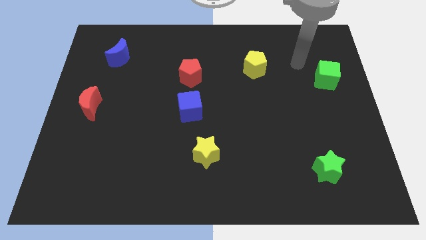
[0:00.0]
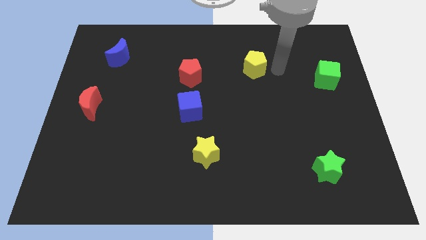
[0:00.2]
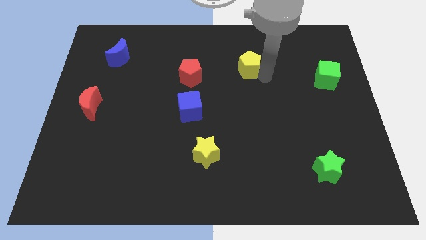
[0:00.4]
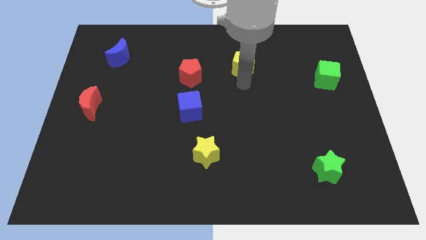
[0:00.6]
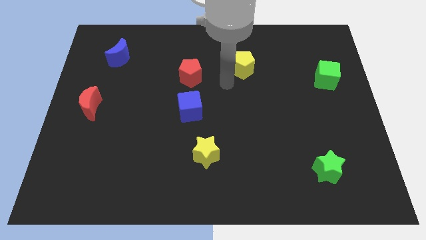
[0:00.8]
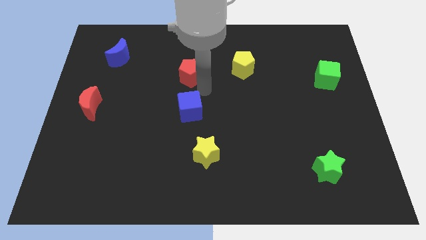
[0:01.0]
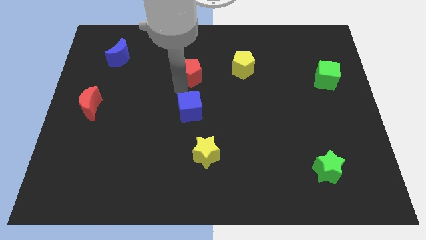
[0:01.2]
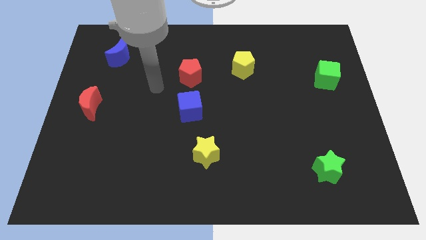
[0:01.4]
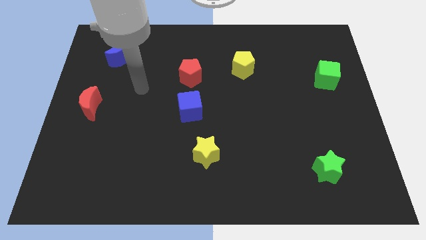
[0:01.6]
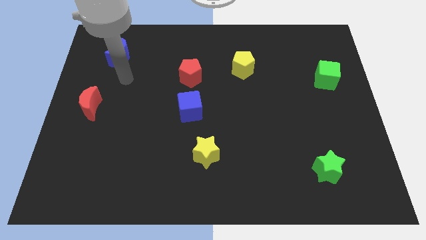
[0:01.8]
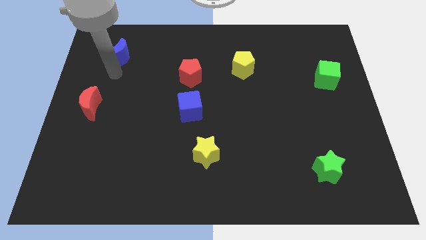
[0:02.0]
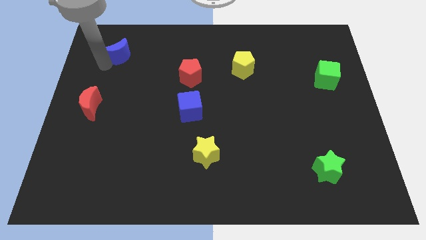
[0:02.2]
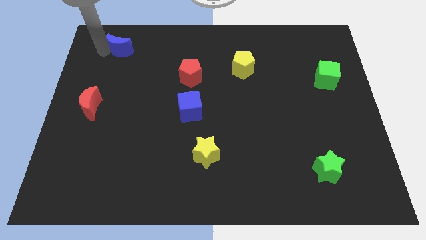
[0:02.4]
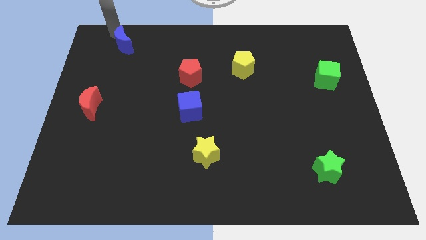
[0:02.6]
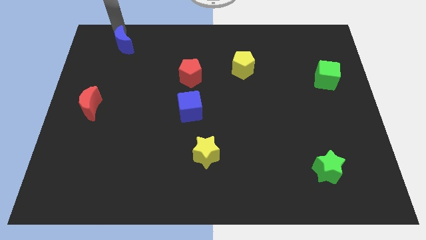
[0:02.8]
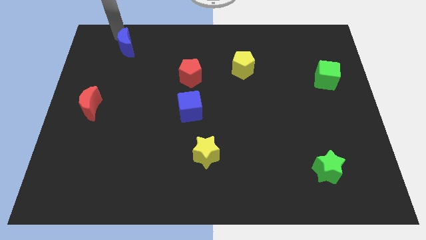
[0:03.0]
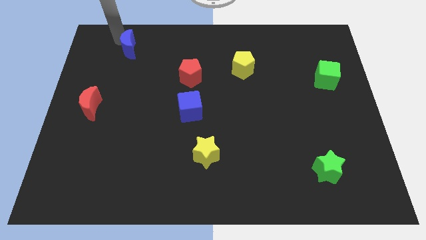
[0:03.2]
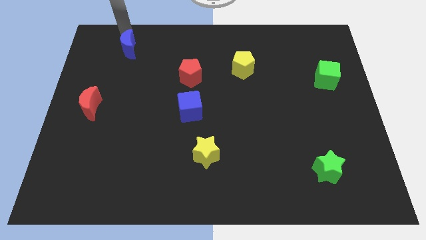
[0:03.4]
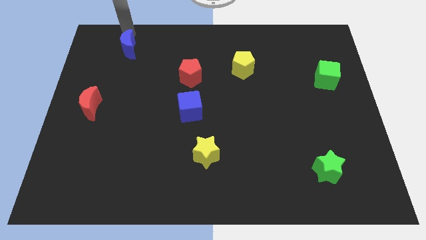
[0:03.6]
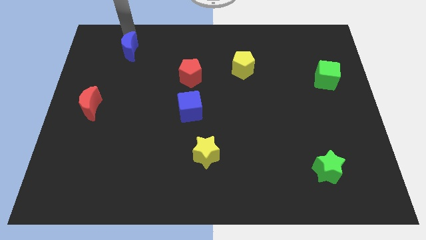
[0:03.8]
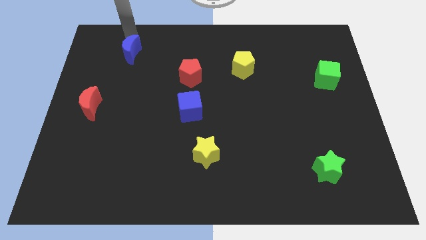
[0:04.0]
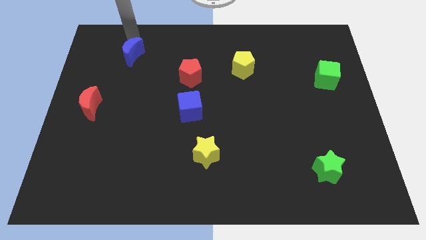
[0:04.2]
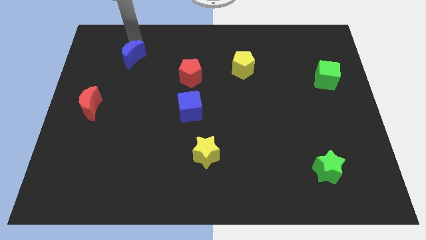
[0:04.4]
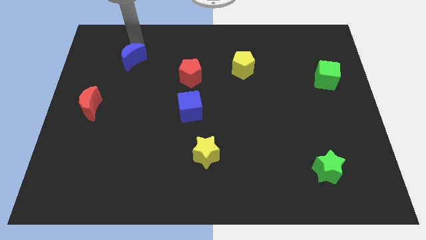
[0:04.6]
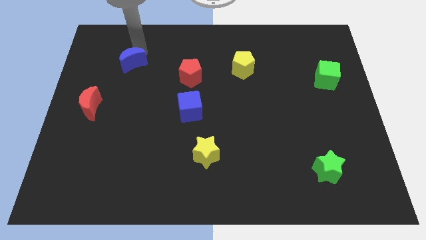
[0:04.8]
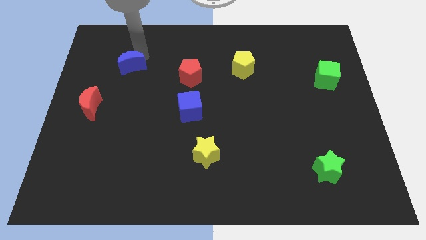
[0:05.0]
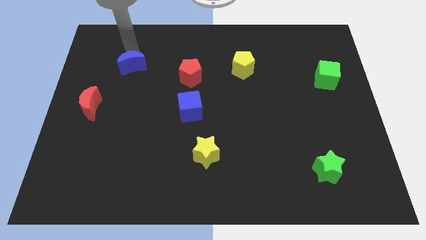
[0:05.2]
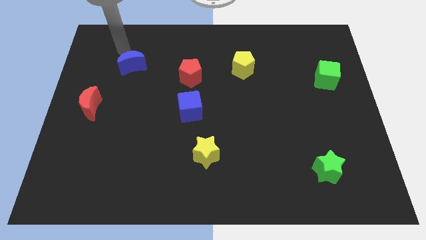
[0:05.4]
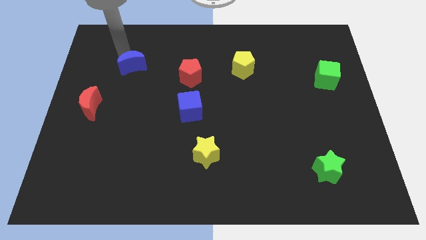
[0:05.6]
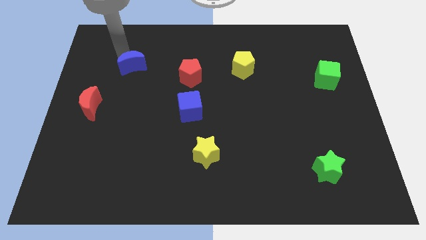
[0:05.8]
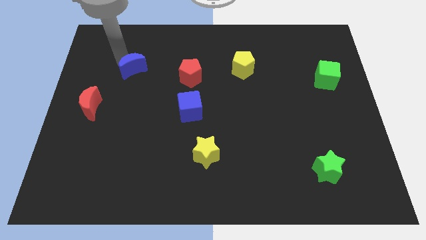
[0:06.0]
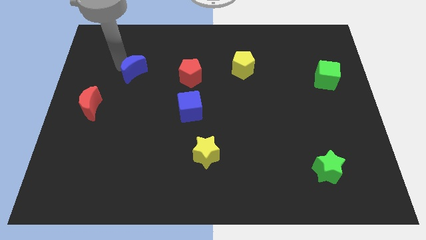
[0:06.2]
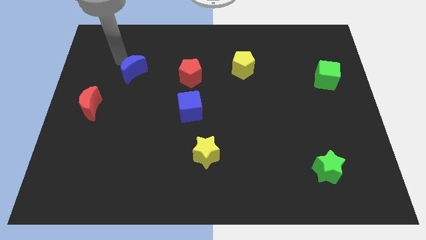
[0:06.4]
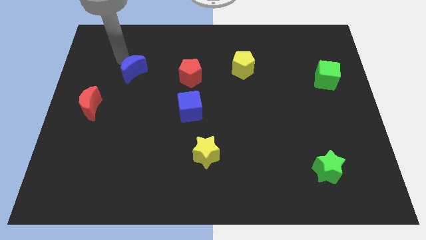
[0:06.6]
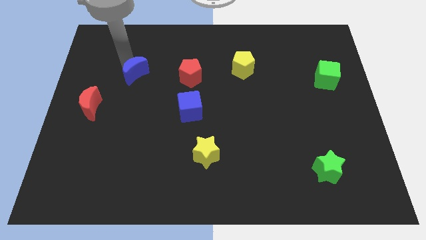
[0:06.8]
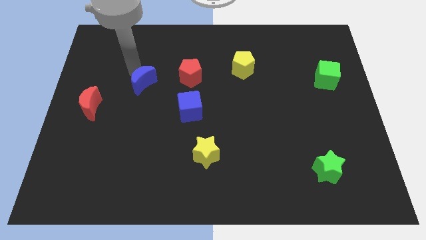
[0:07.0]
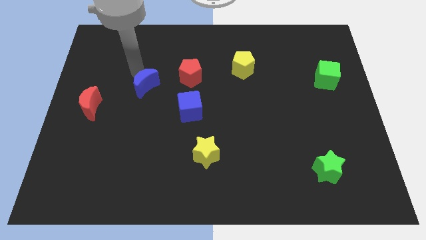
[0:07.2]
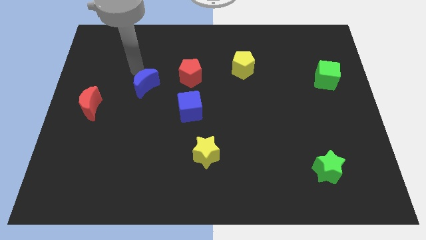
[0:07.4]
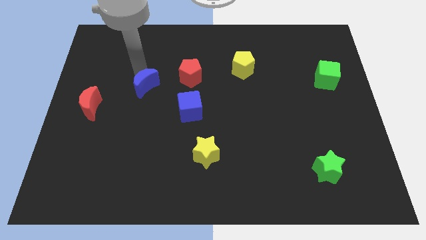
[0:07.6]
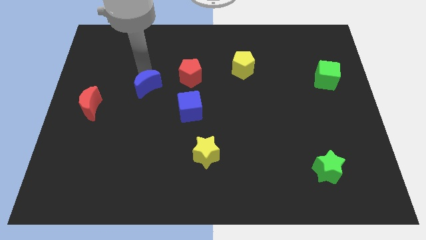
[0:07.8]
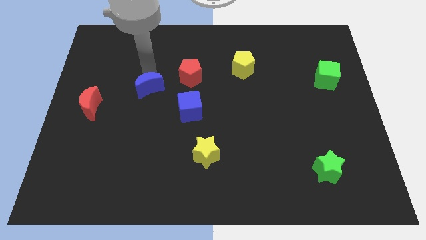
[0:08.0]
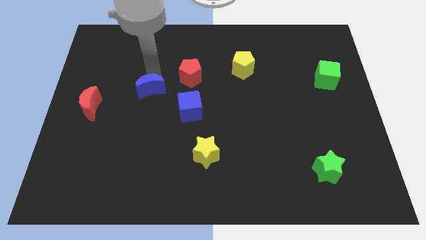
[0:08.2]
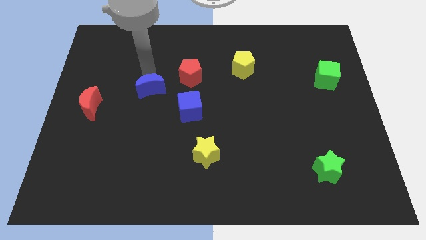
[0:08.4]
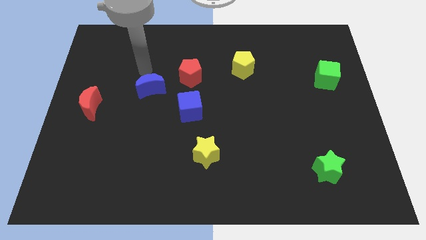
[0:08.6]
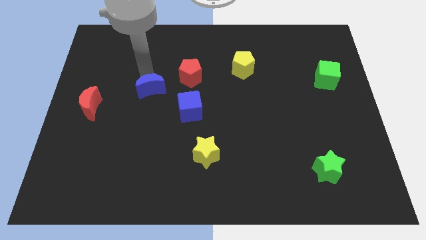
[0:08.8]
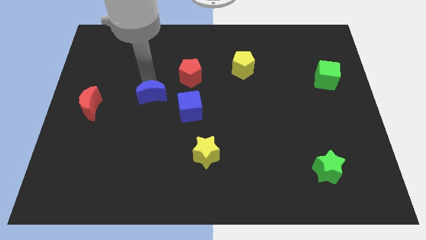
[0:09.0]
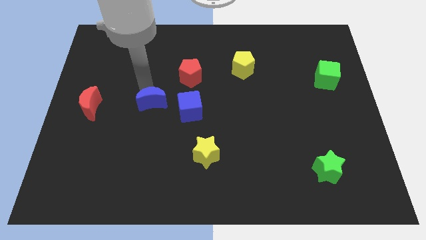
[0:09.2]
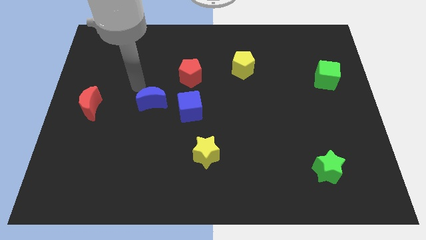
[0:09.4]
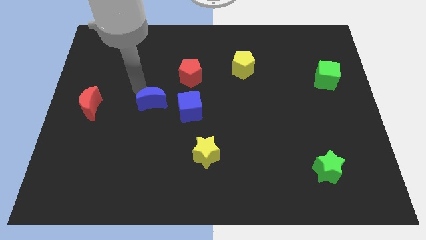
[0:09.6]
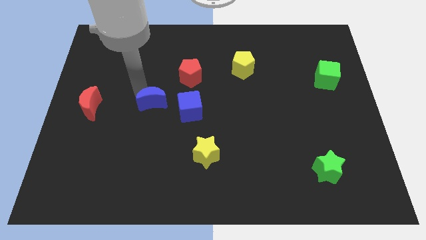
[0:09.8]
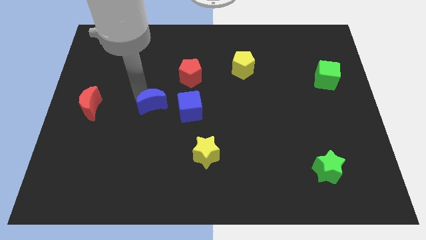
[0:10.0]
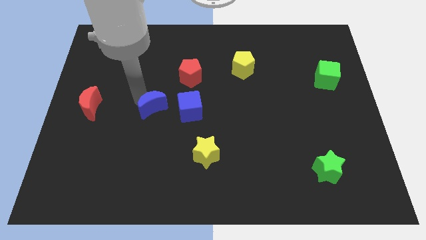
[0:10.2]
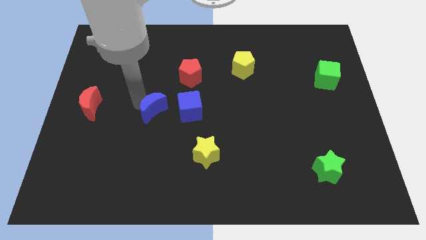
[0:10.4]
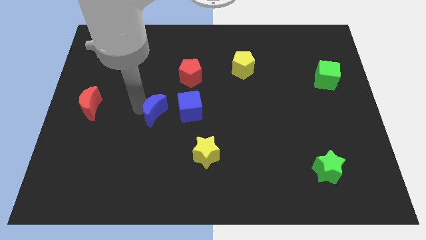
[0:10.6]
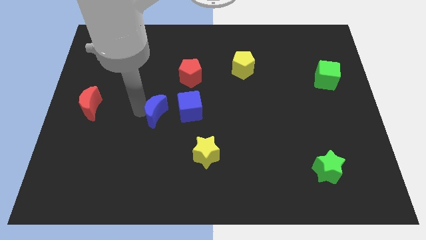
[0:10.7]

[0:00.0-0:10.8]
move the blue moon down and to the right diagonally

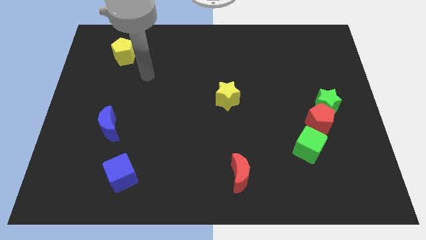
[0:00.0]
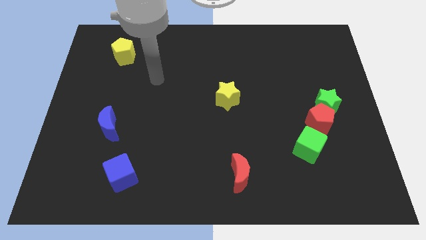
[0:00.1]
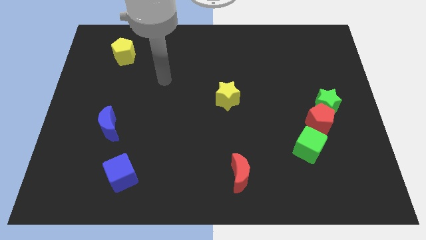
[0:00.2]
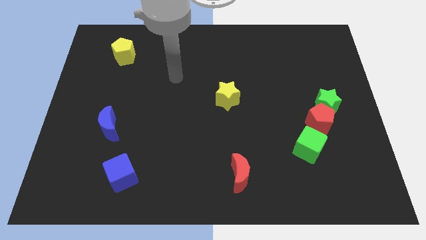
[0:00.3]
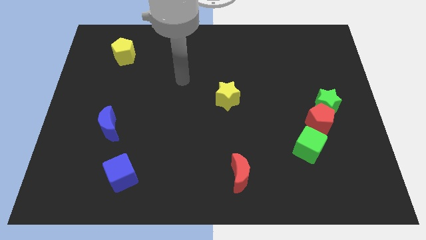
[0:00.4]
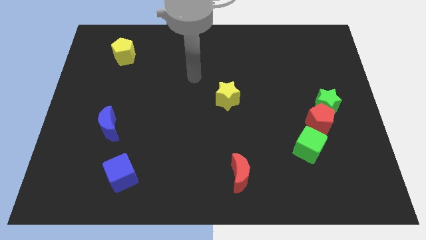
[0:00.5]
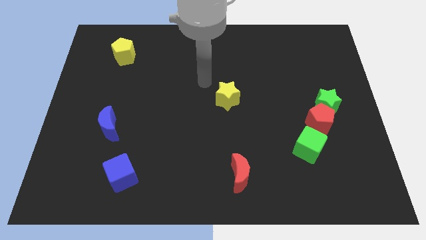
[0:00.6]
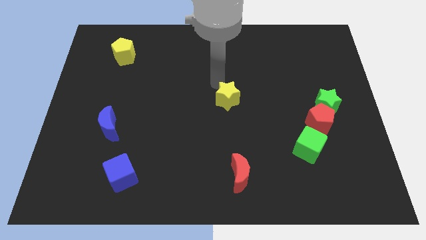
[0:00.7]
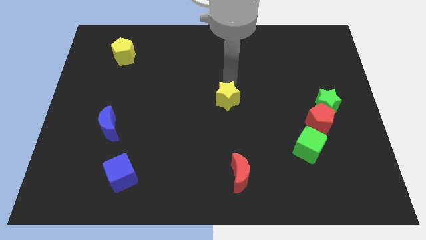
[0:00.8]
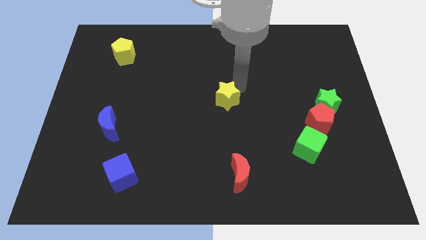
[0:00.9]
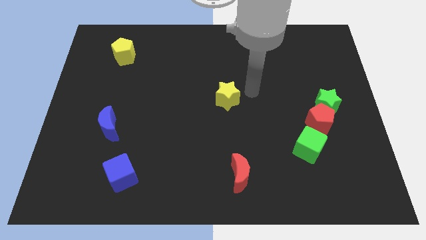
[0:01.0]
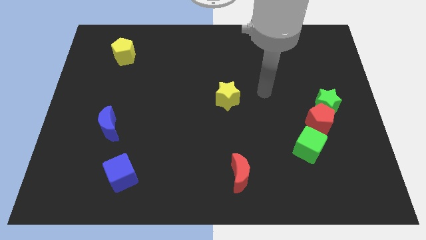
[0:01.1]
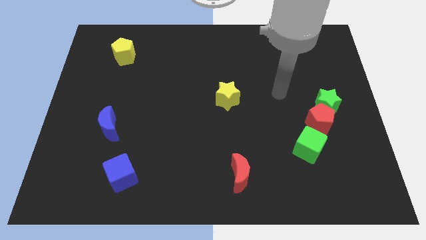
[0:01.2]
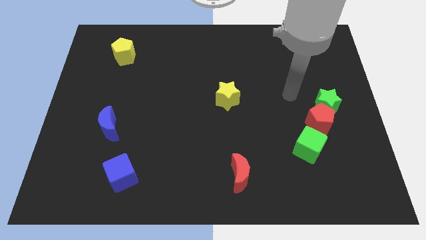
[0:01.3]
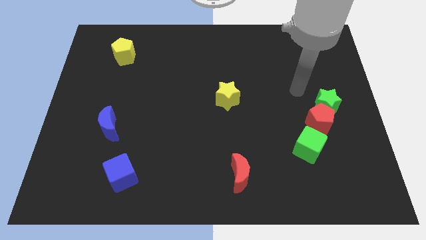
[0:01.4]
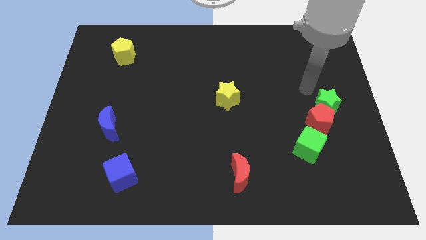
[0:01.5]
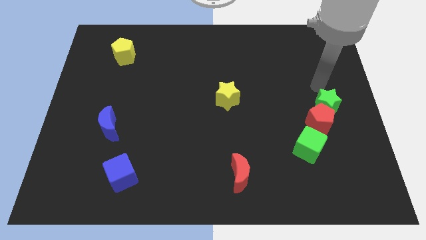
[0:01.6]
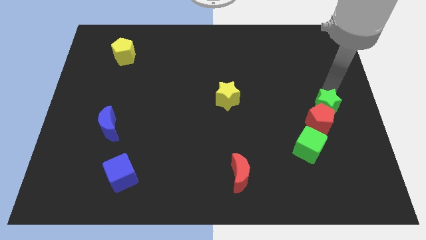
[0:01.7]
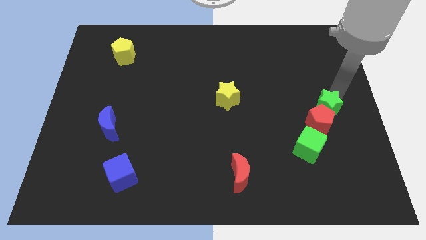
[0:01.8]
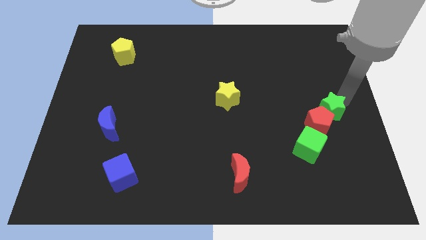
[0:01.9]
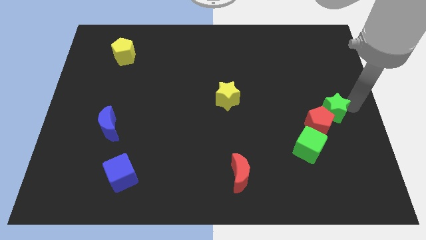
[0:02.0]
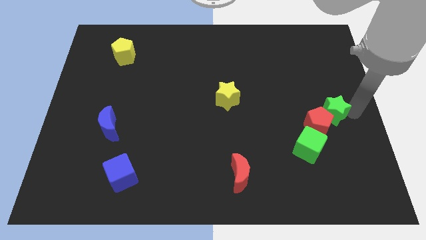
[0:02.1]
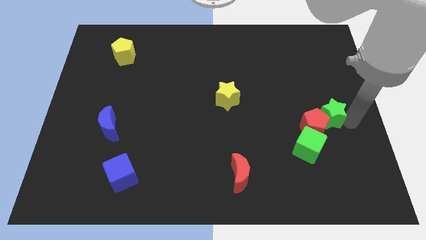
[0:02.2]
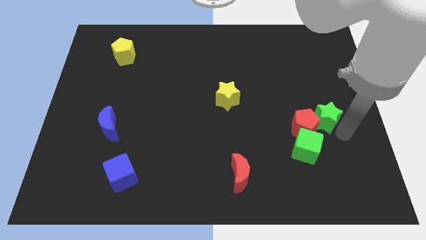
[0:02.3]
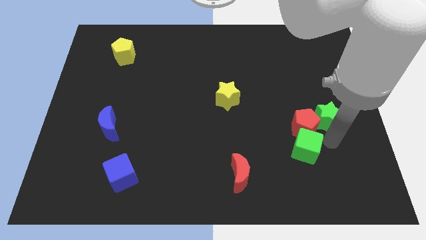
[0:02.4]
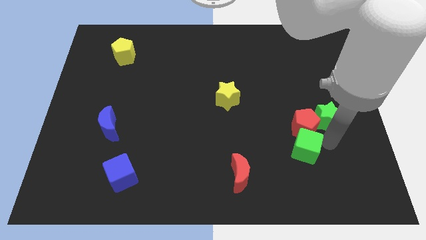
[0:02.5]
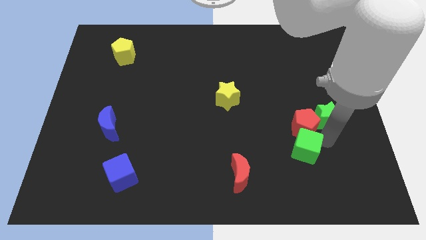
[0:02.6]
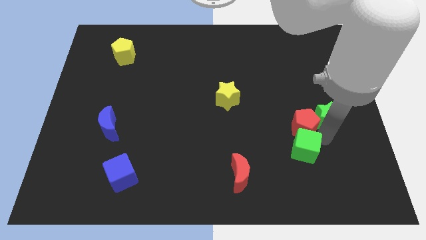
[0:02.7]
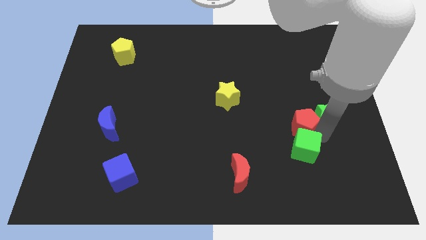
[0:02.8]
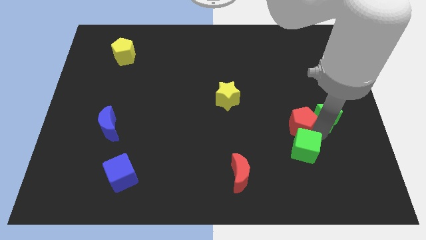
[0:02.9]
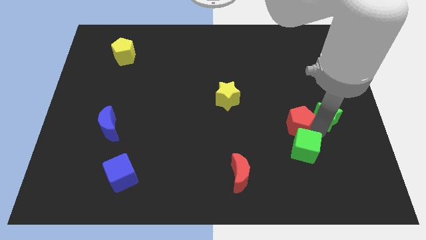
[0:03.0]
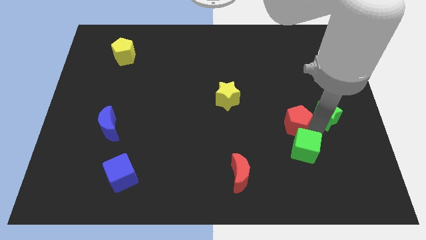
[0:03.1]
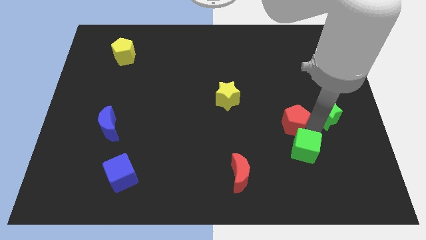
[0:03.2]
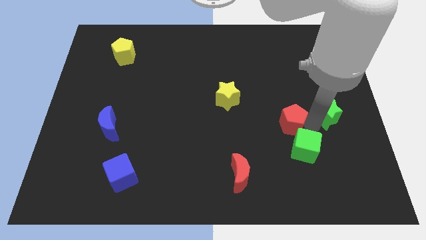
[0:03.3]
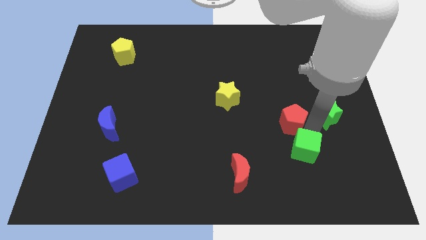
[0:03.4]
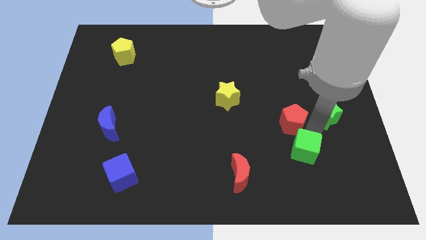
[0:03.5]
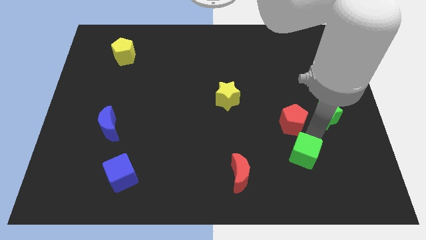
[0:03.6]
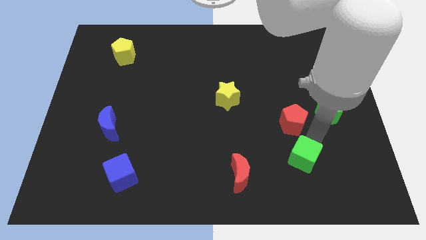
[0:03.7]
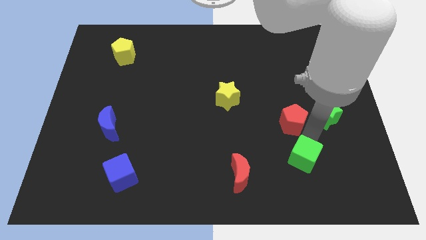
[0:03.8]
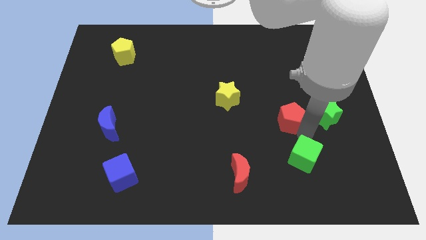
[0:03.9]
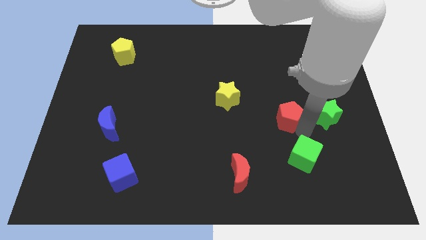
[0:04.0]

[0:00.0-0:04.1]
slide the red pentagon somewhat to the left
